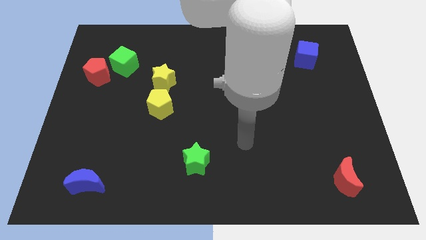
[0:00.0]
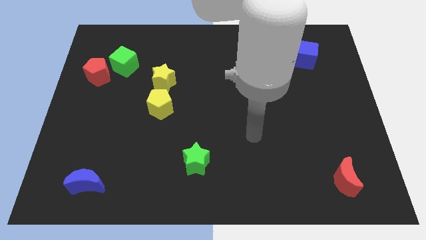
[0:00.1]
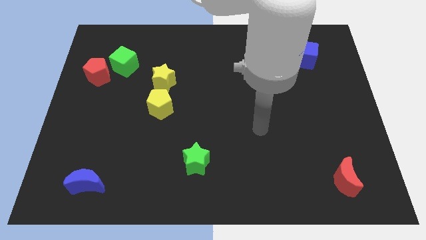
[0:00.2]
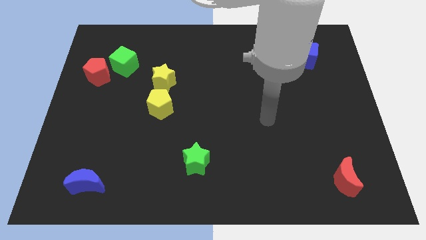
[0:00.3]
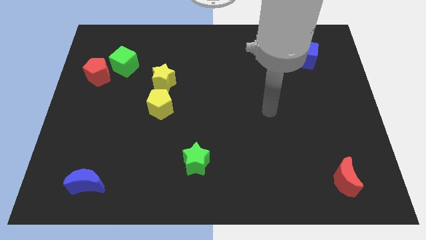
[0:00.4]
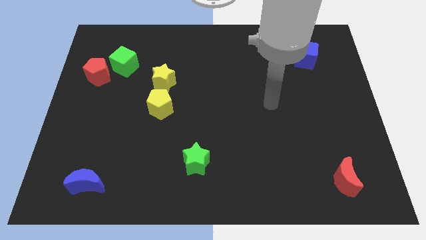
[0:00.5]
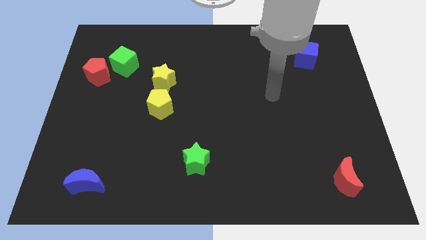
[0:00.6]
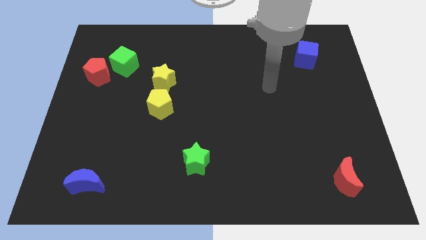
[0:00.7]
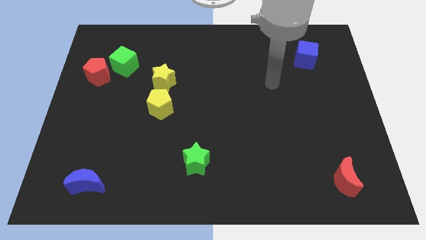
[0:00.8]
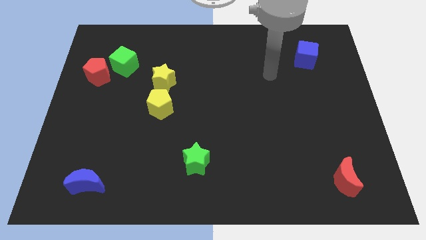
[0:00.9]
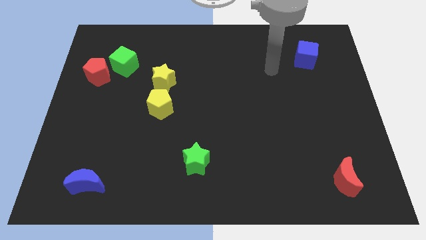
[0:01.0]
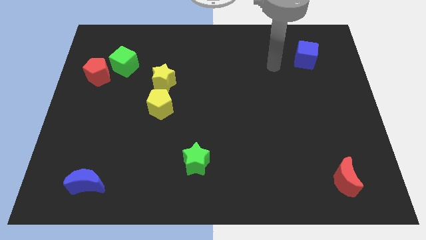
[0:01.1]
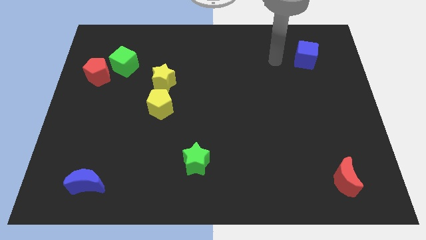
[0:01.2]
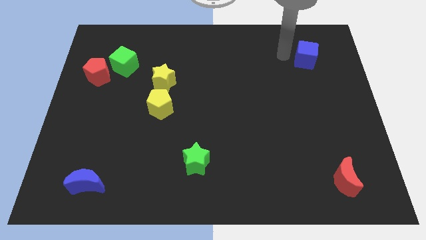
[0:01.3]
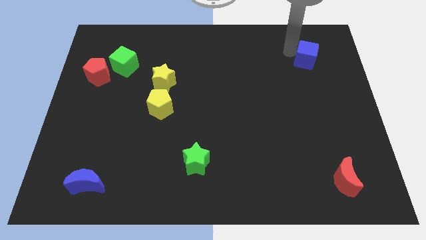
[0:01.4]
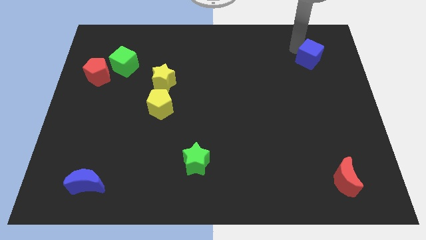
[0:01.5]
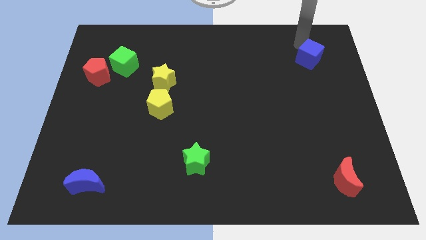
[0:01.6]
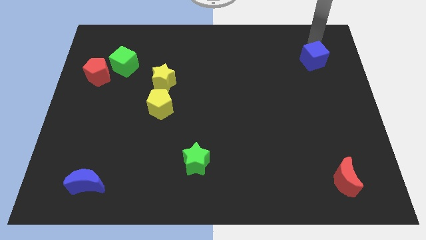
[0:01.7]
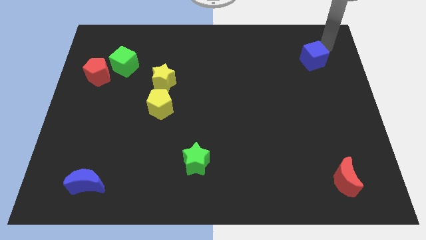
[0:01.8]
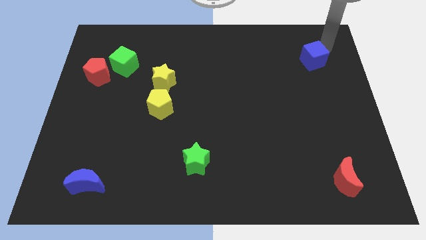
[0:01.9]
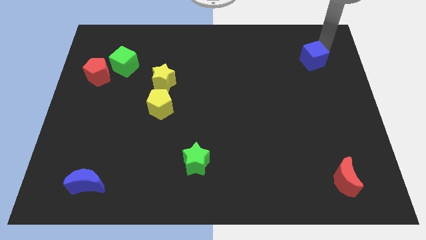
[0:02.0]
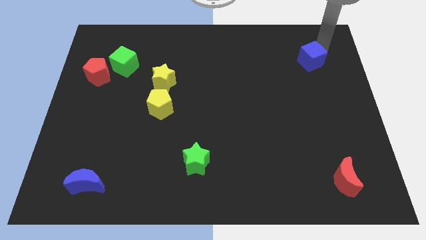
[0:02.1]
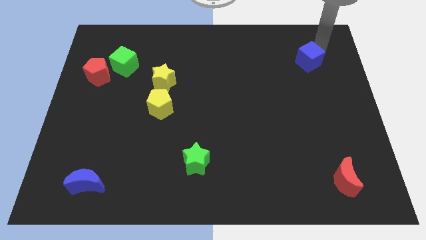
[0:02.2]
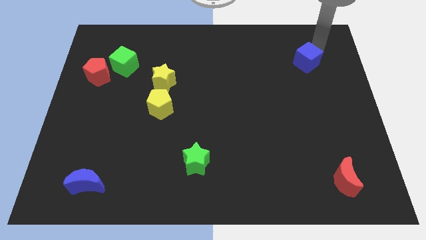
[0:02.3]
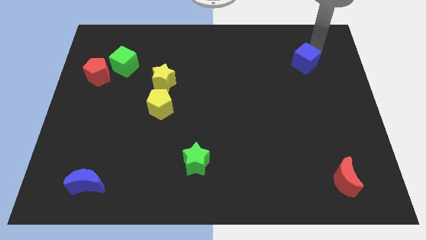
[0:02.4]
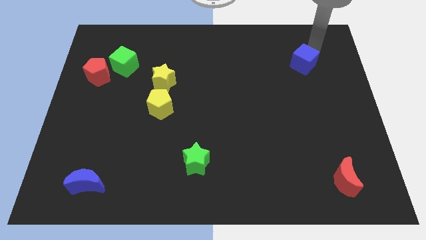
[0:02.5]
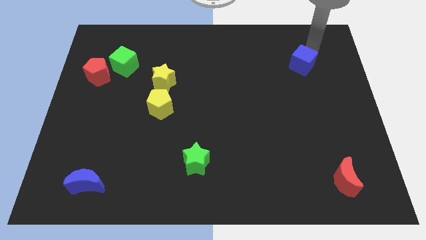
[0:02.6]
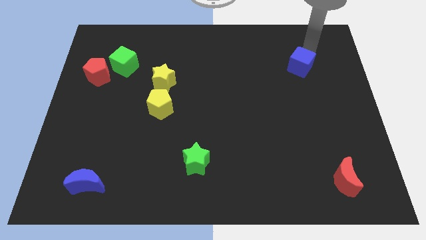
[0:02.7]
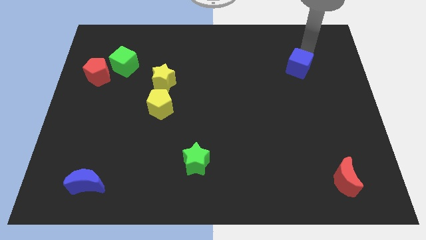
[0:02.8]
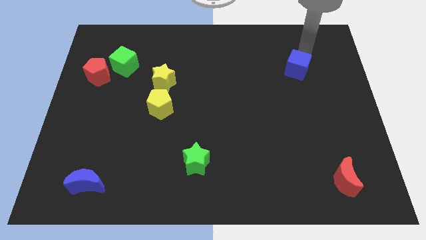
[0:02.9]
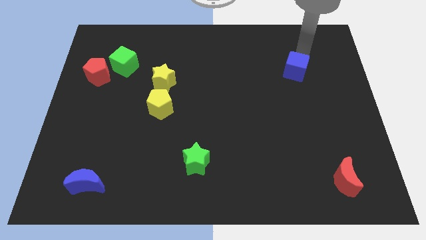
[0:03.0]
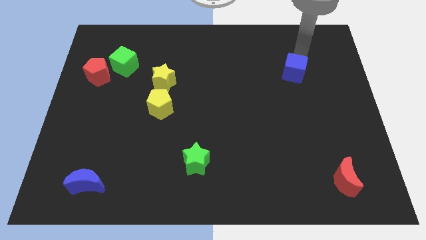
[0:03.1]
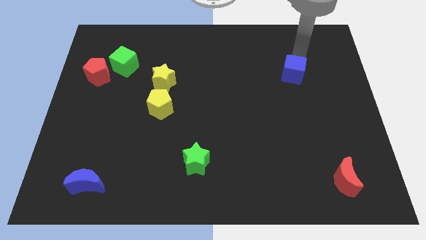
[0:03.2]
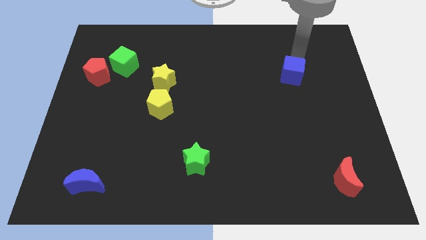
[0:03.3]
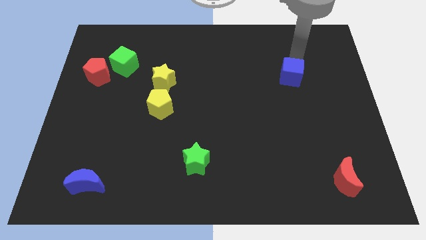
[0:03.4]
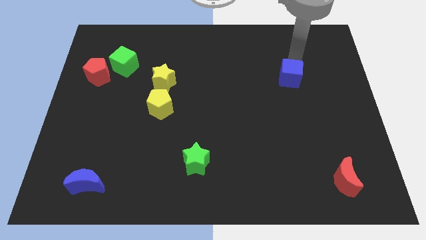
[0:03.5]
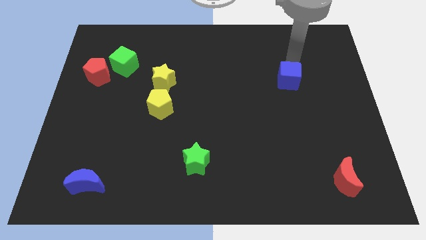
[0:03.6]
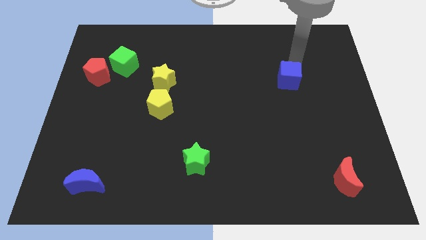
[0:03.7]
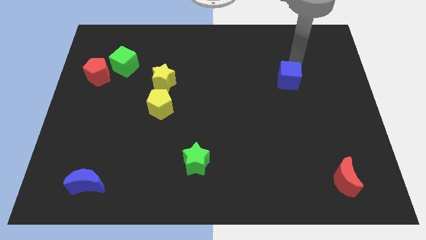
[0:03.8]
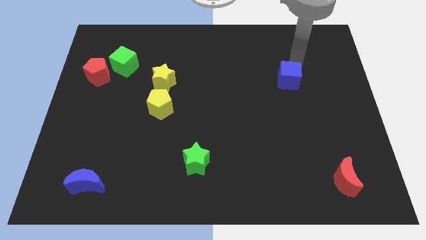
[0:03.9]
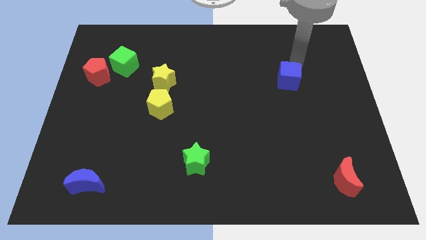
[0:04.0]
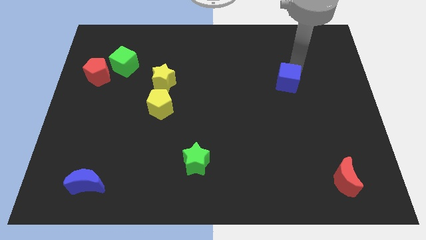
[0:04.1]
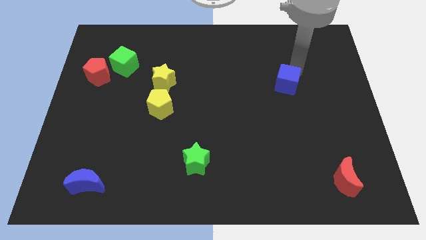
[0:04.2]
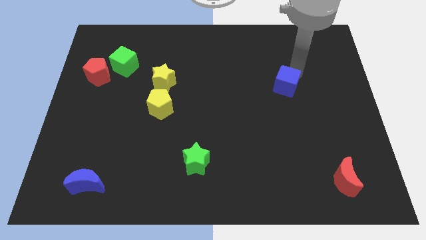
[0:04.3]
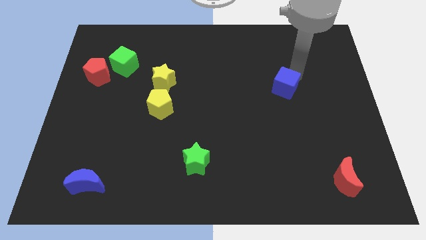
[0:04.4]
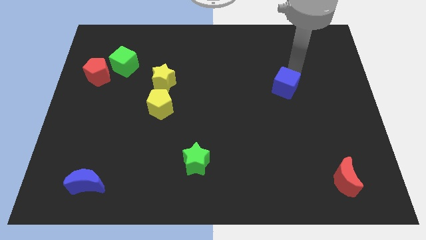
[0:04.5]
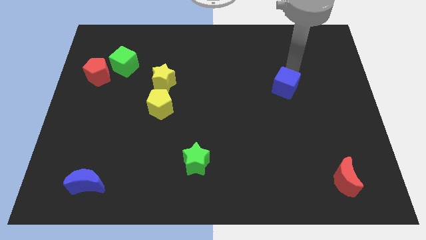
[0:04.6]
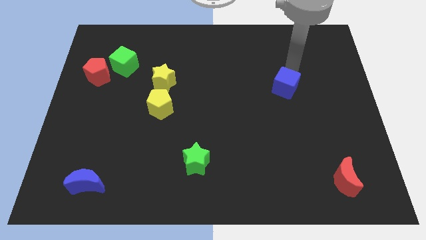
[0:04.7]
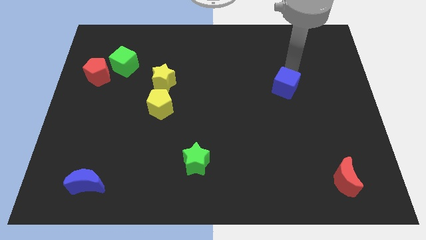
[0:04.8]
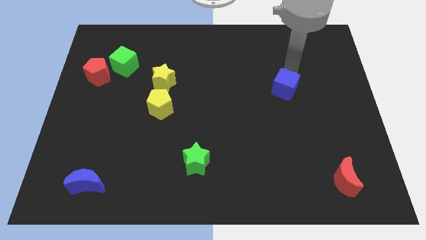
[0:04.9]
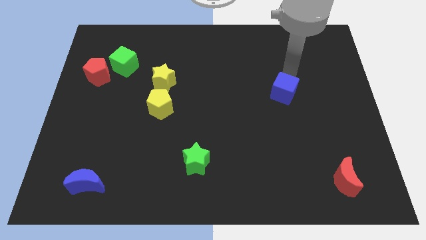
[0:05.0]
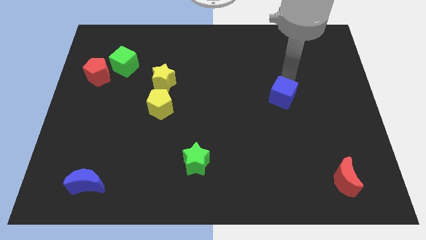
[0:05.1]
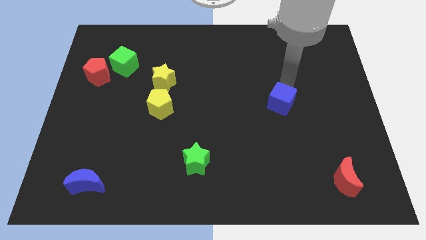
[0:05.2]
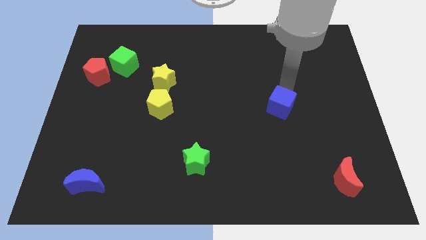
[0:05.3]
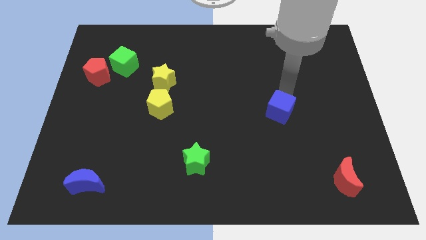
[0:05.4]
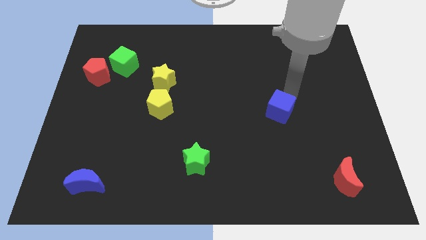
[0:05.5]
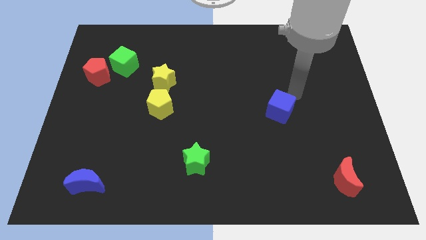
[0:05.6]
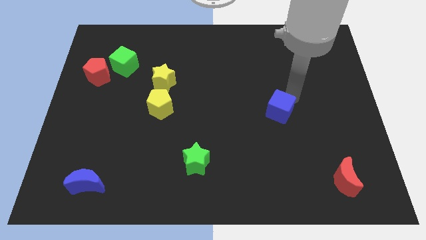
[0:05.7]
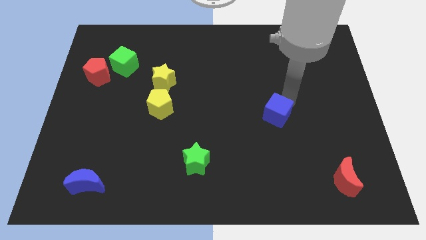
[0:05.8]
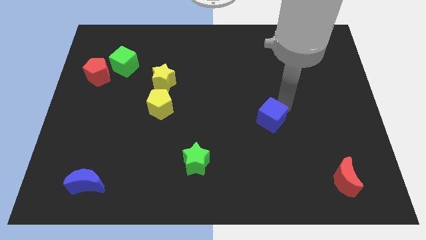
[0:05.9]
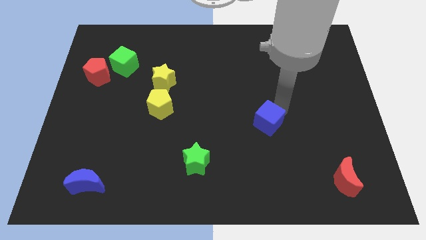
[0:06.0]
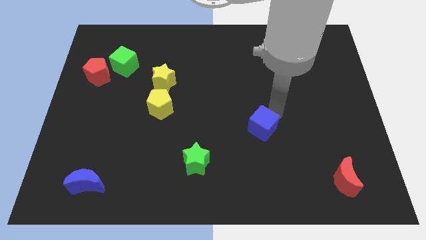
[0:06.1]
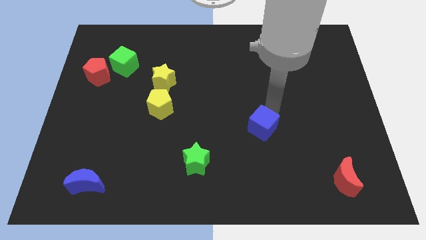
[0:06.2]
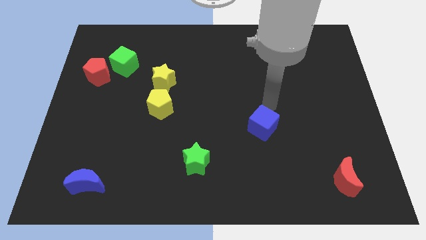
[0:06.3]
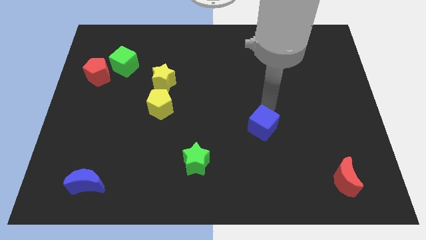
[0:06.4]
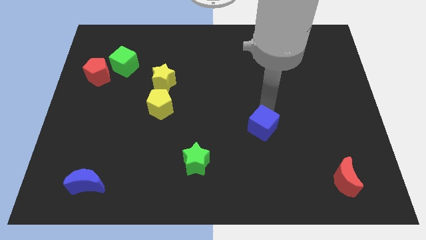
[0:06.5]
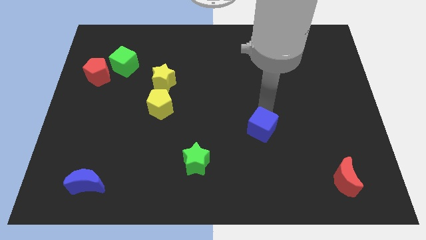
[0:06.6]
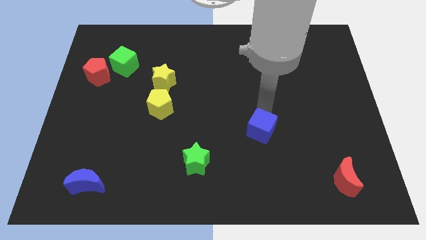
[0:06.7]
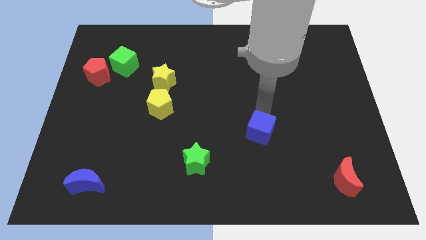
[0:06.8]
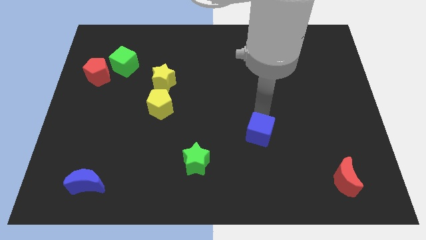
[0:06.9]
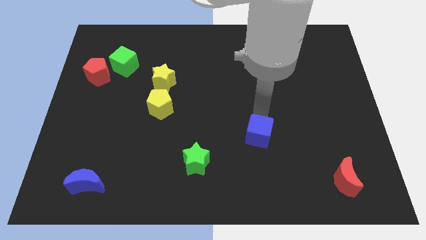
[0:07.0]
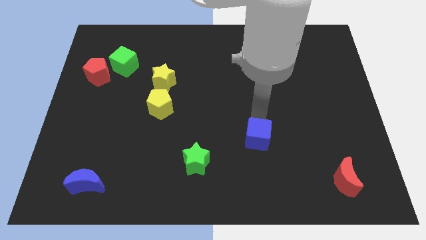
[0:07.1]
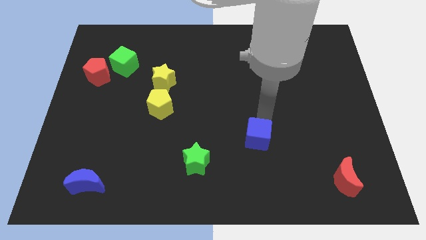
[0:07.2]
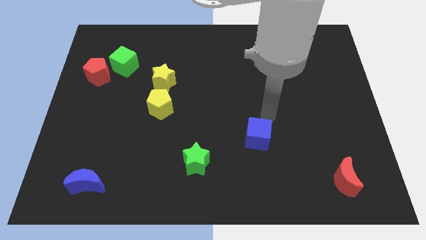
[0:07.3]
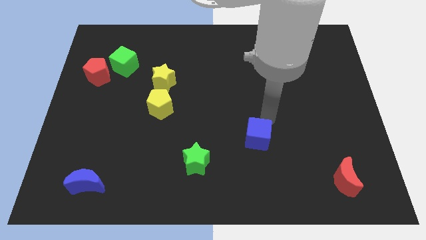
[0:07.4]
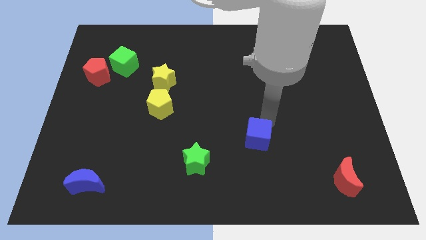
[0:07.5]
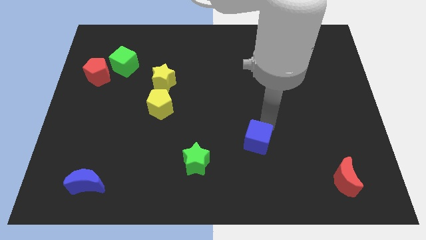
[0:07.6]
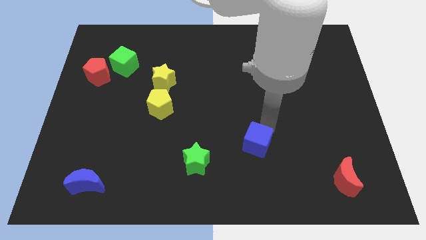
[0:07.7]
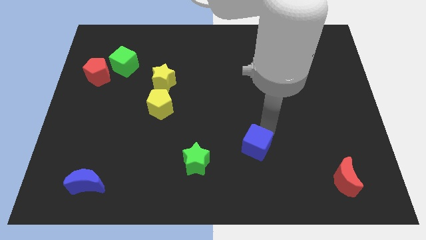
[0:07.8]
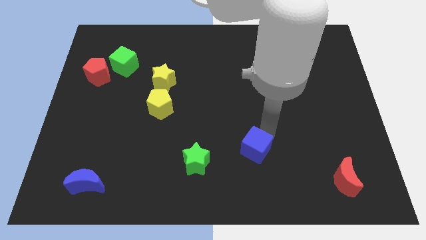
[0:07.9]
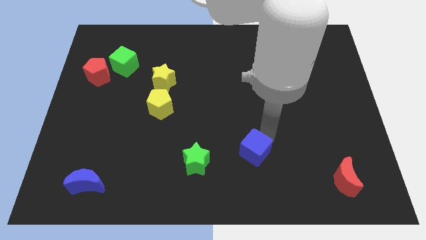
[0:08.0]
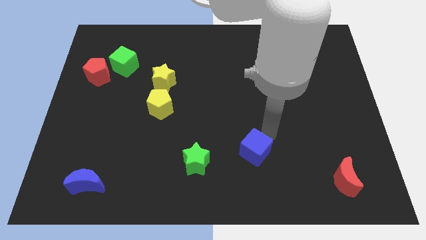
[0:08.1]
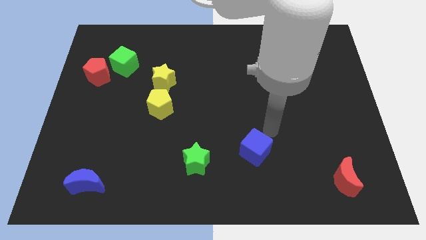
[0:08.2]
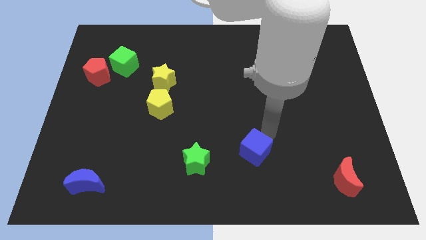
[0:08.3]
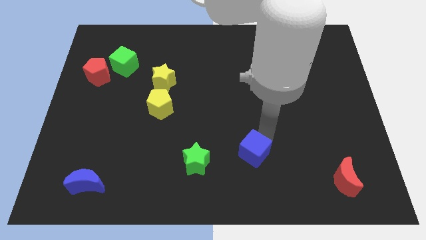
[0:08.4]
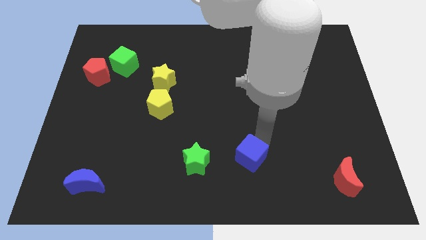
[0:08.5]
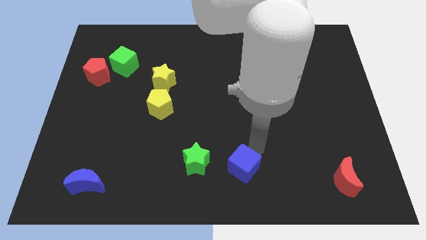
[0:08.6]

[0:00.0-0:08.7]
slide the blue cube to the bottom
